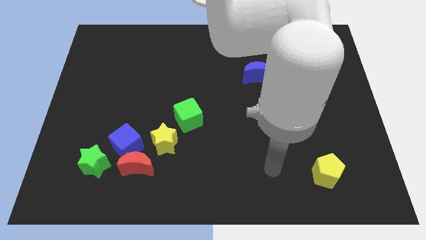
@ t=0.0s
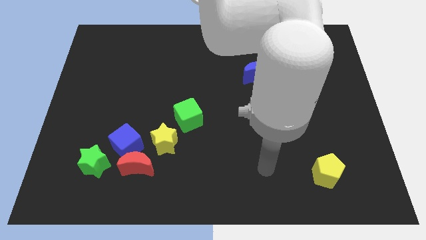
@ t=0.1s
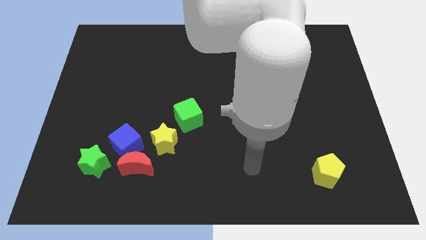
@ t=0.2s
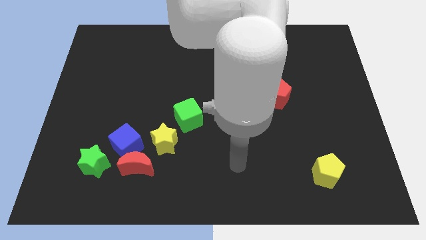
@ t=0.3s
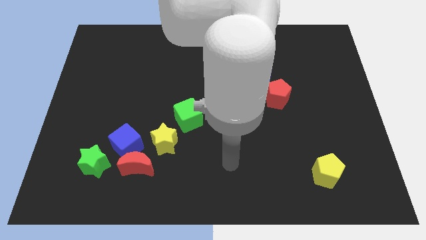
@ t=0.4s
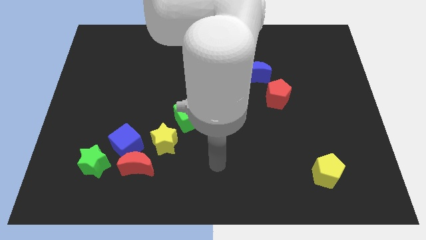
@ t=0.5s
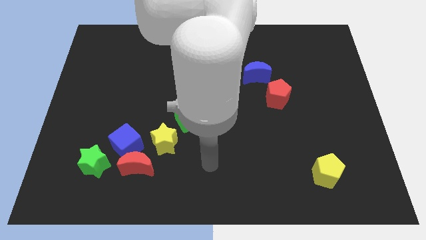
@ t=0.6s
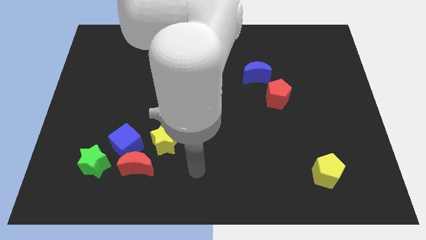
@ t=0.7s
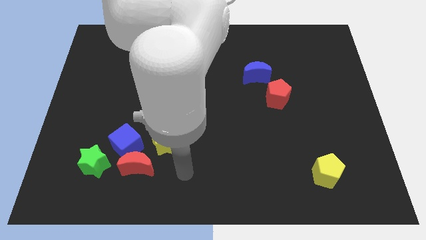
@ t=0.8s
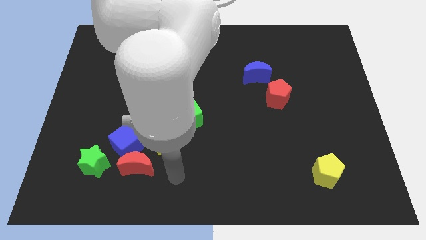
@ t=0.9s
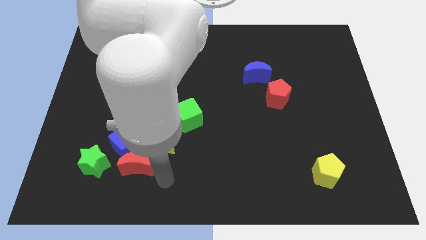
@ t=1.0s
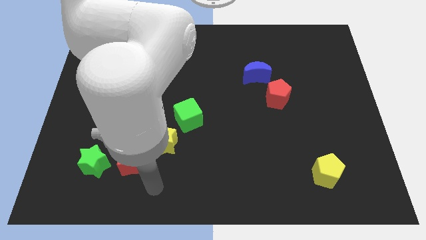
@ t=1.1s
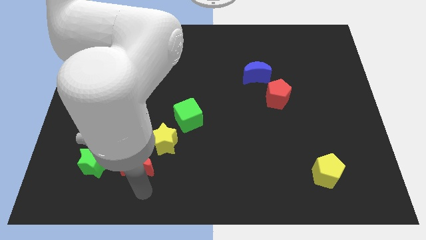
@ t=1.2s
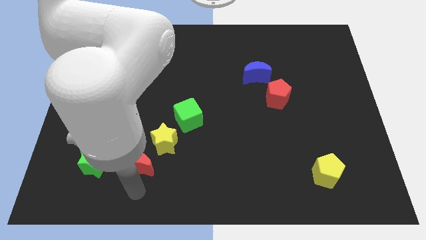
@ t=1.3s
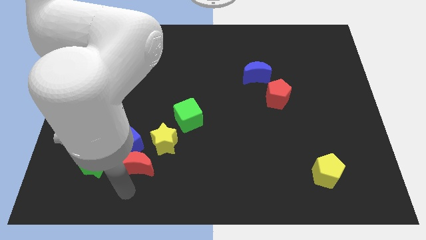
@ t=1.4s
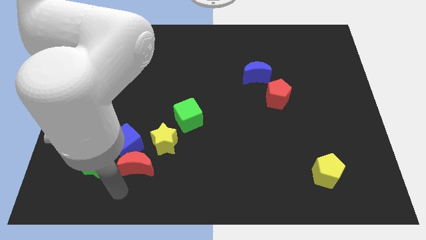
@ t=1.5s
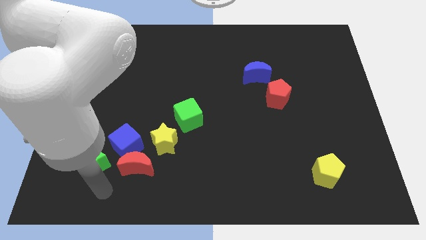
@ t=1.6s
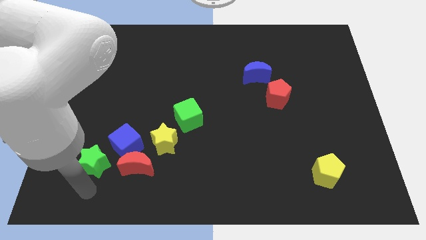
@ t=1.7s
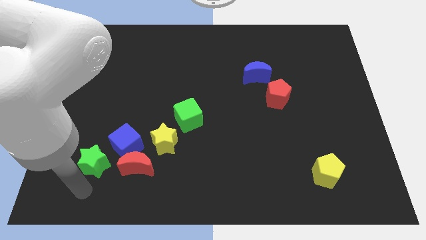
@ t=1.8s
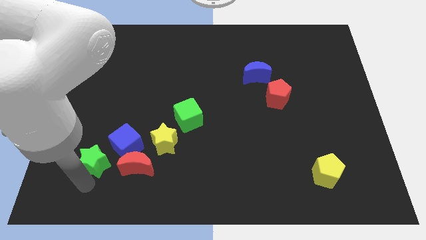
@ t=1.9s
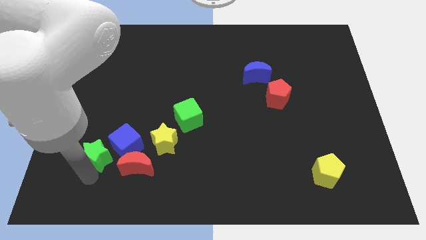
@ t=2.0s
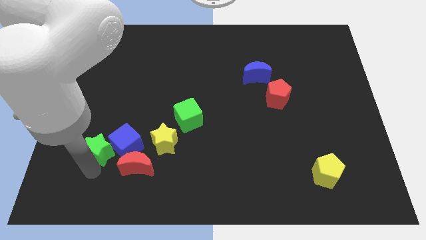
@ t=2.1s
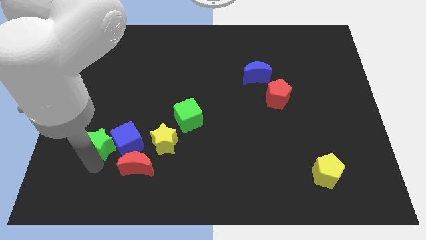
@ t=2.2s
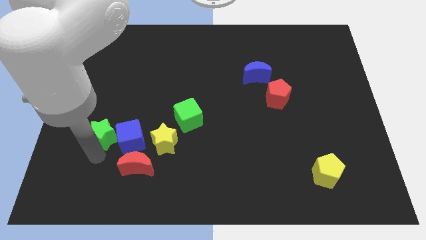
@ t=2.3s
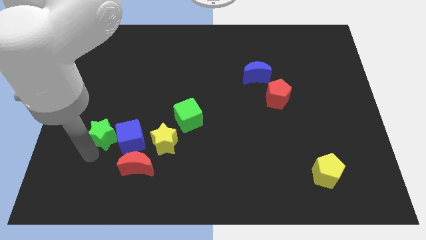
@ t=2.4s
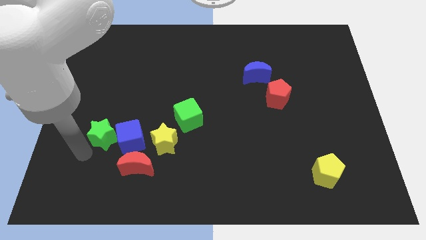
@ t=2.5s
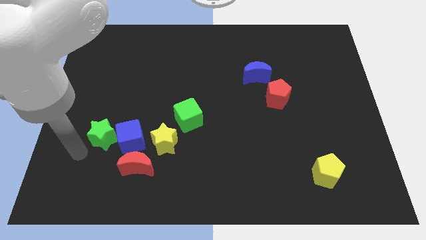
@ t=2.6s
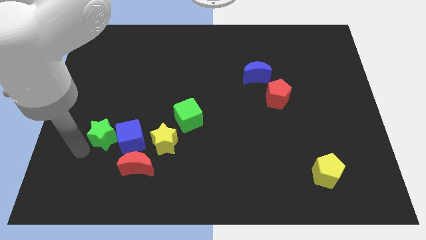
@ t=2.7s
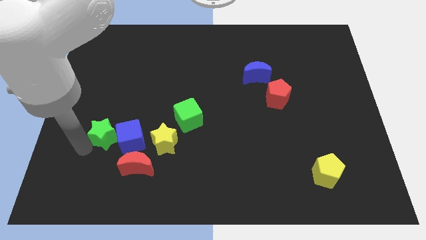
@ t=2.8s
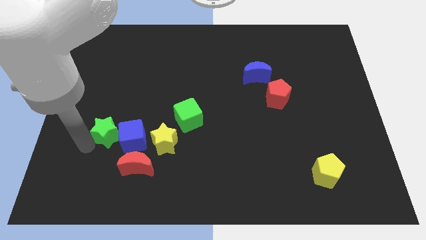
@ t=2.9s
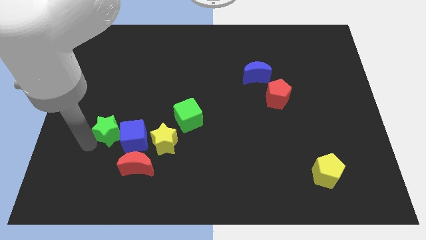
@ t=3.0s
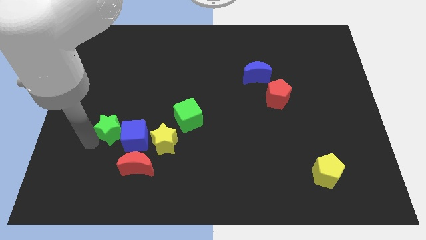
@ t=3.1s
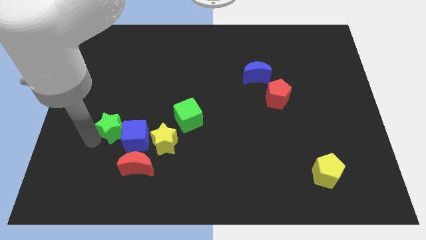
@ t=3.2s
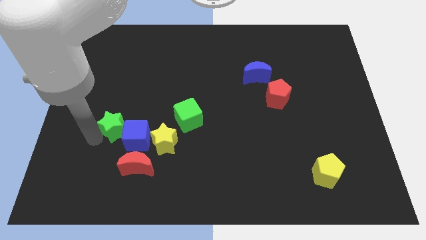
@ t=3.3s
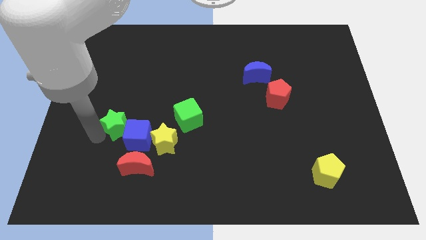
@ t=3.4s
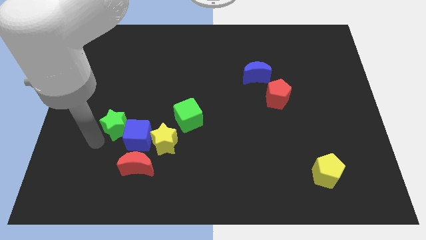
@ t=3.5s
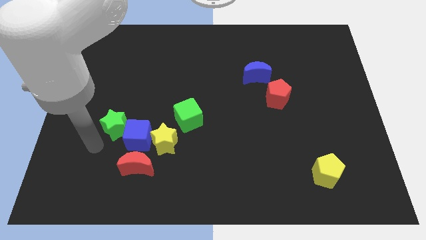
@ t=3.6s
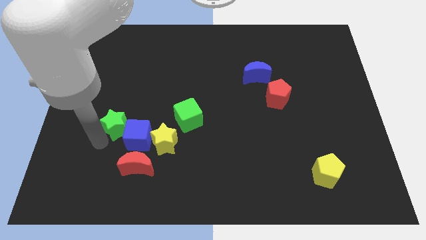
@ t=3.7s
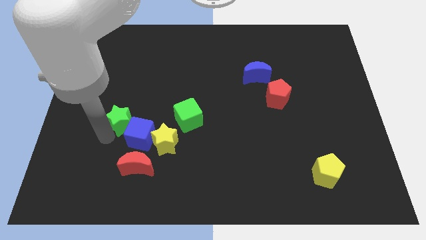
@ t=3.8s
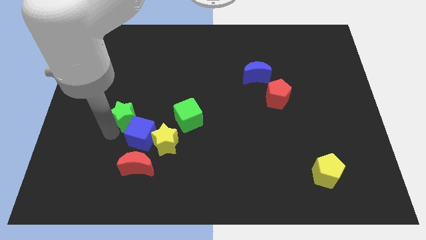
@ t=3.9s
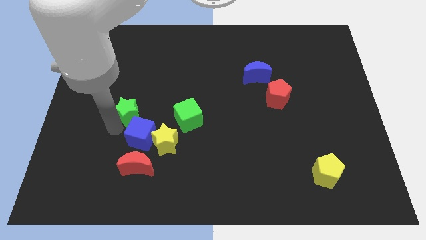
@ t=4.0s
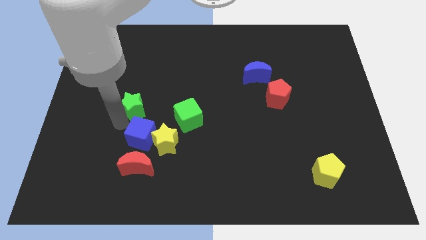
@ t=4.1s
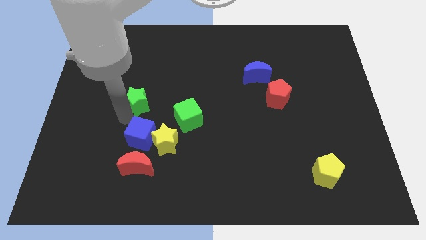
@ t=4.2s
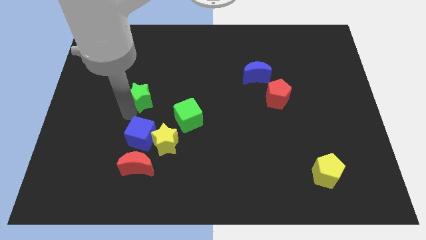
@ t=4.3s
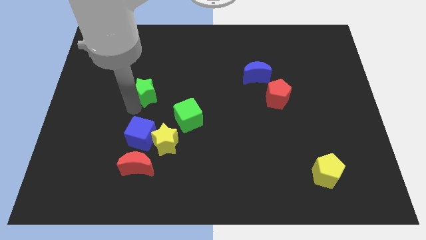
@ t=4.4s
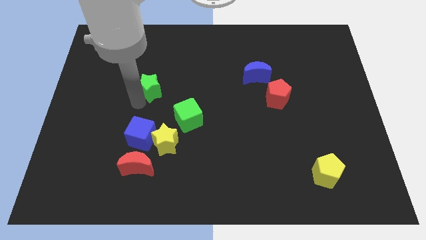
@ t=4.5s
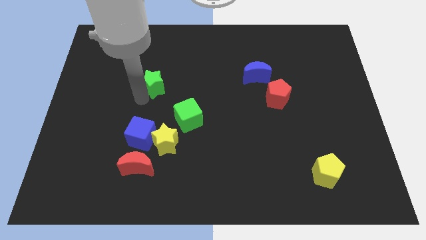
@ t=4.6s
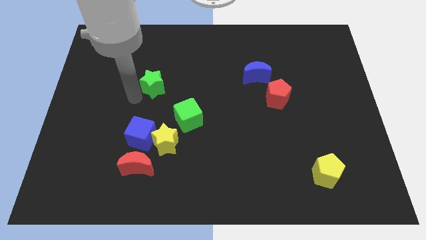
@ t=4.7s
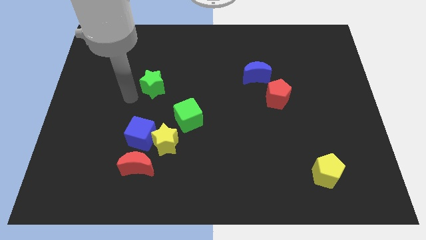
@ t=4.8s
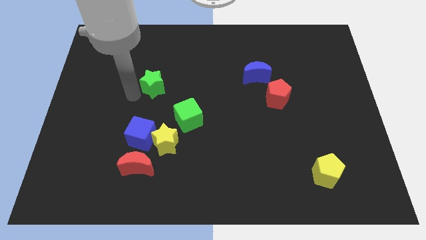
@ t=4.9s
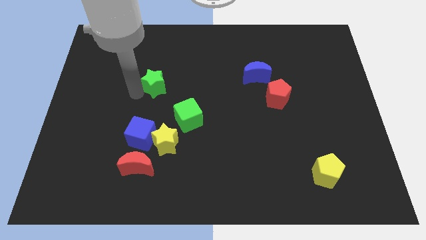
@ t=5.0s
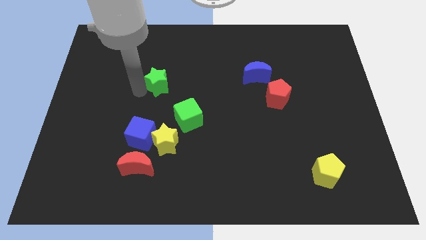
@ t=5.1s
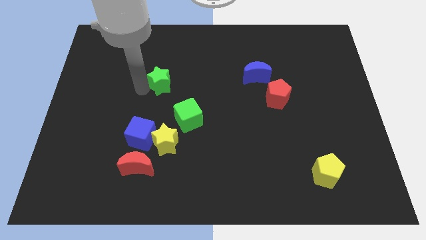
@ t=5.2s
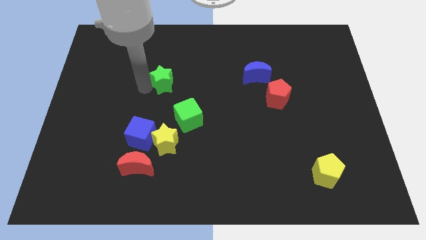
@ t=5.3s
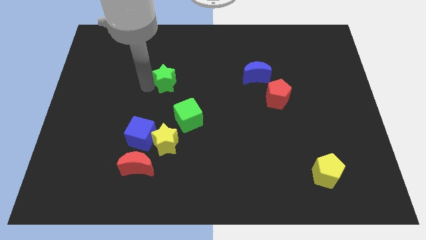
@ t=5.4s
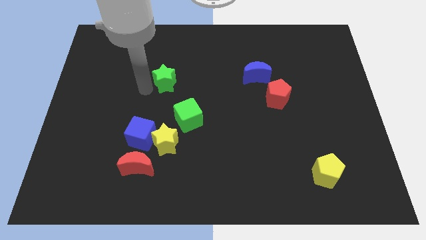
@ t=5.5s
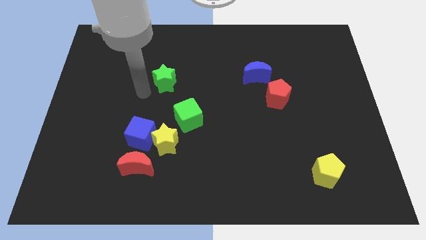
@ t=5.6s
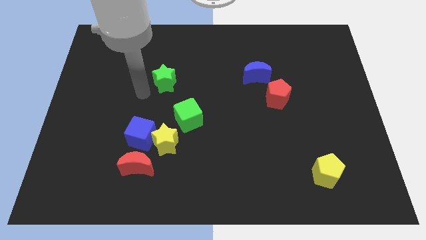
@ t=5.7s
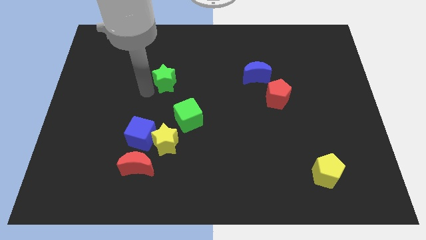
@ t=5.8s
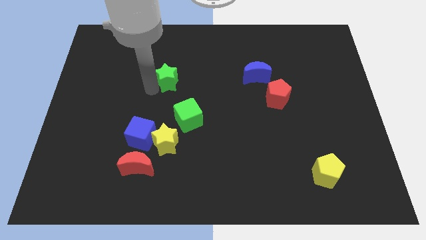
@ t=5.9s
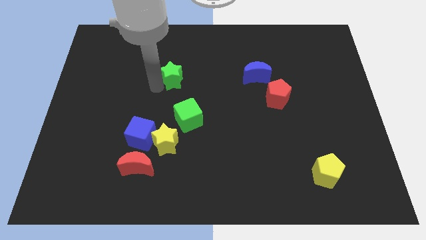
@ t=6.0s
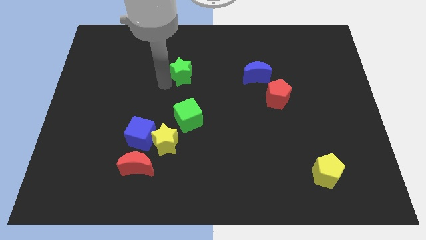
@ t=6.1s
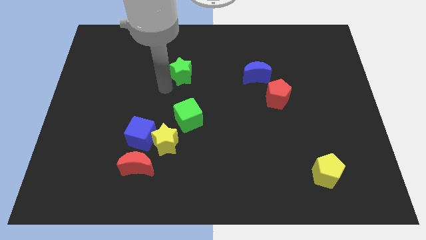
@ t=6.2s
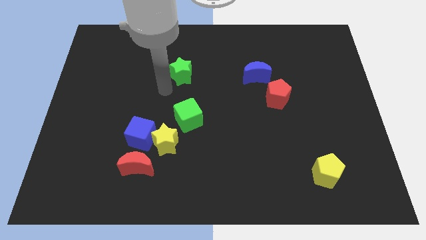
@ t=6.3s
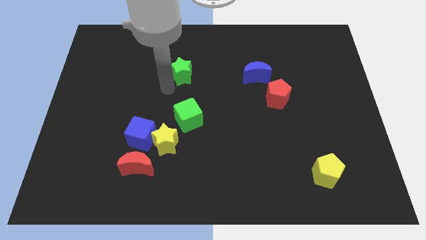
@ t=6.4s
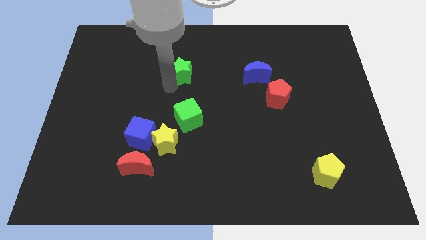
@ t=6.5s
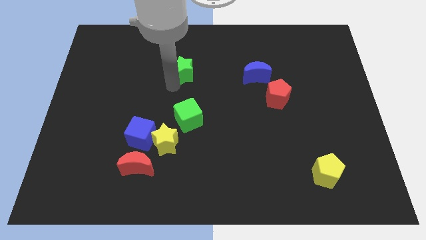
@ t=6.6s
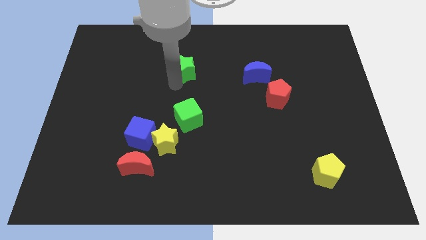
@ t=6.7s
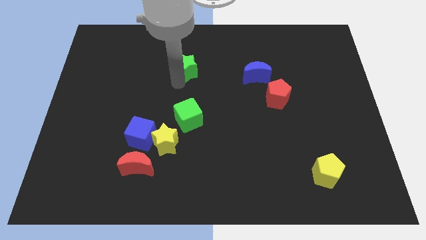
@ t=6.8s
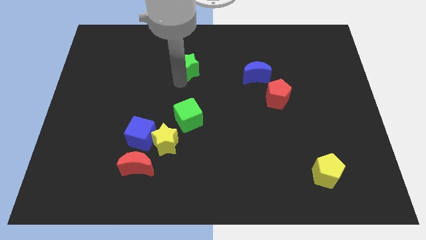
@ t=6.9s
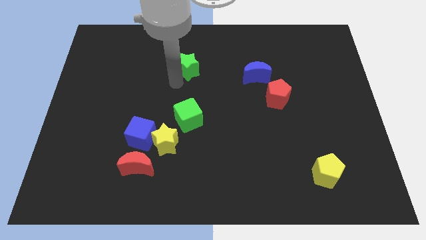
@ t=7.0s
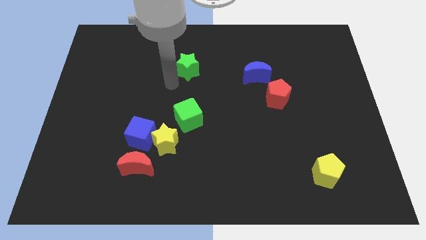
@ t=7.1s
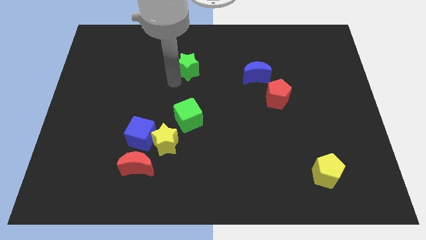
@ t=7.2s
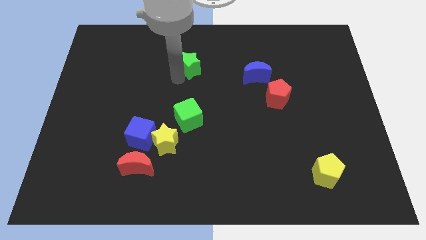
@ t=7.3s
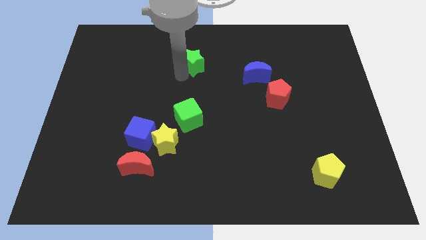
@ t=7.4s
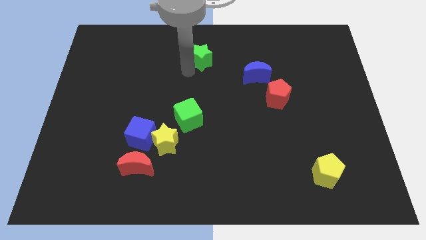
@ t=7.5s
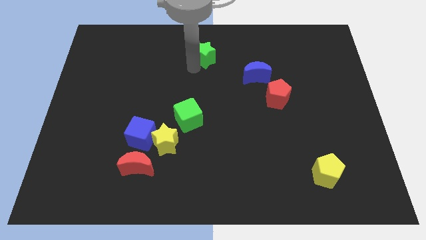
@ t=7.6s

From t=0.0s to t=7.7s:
move the green star to the towards your base
